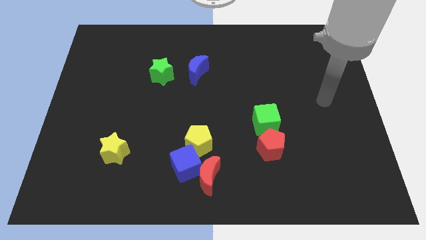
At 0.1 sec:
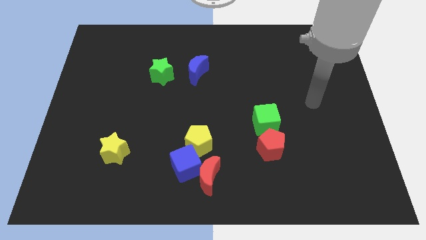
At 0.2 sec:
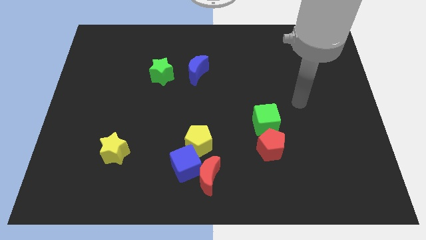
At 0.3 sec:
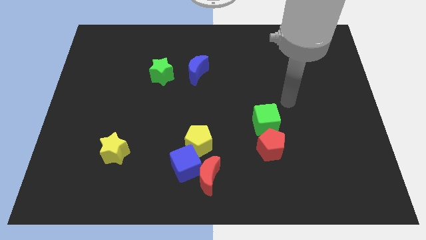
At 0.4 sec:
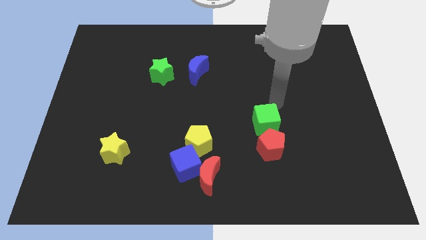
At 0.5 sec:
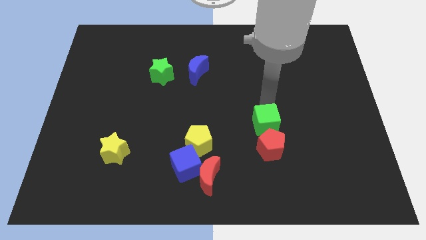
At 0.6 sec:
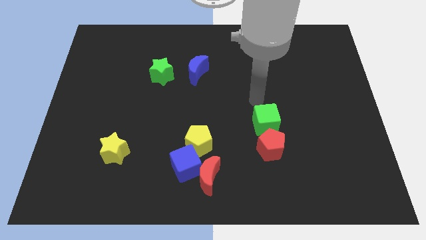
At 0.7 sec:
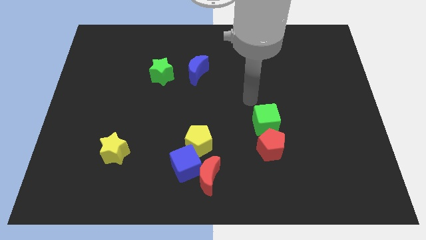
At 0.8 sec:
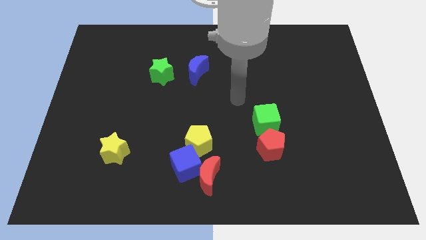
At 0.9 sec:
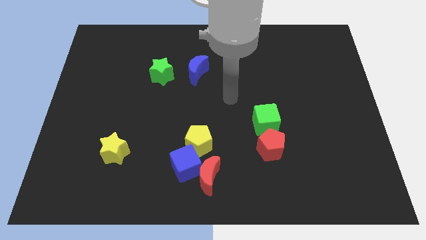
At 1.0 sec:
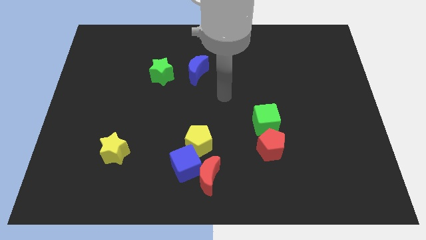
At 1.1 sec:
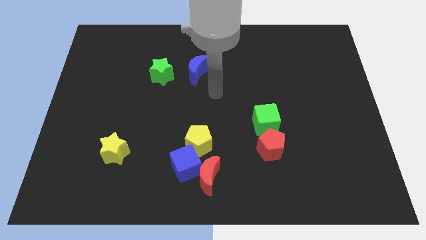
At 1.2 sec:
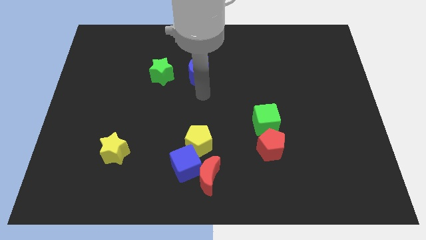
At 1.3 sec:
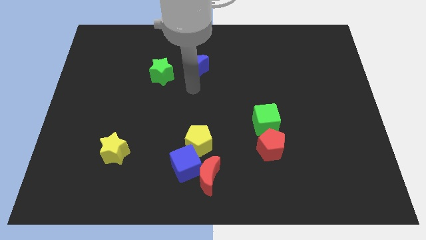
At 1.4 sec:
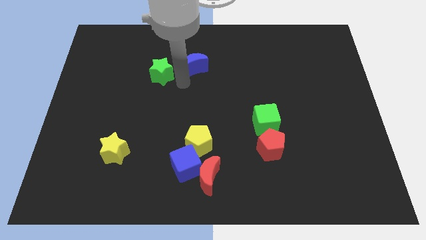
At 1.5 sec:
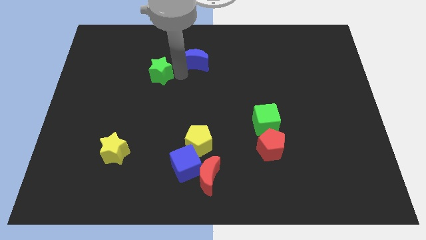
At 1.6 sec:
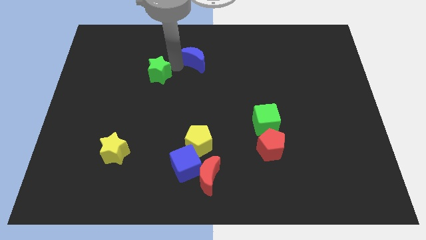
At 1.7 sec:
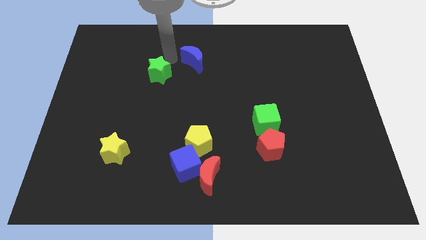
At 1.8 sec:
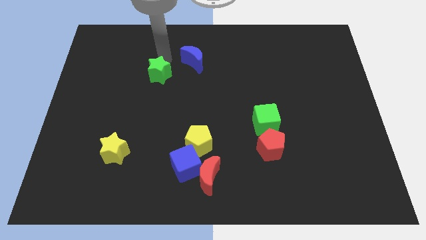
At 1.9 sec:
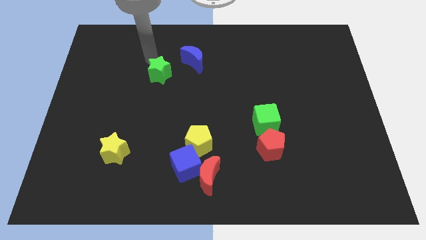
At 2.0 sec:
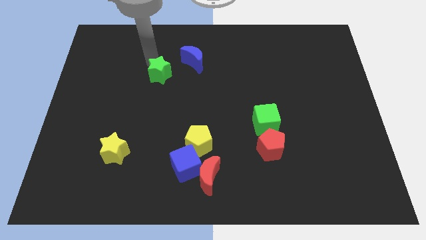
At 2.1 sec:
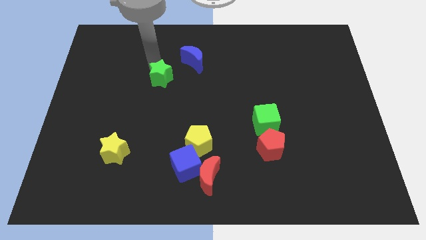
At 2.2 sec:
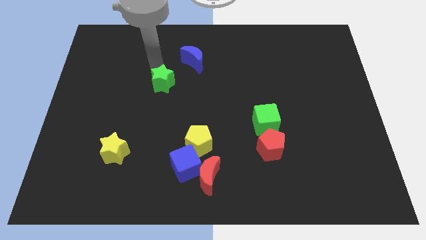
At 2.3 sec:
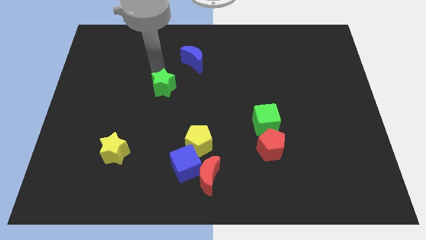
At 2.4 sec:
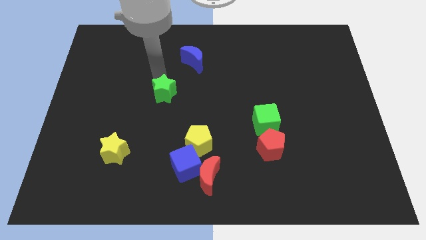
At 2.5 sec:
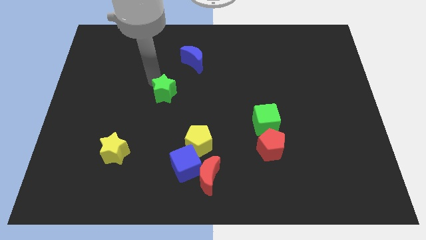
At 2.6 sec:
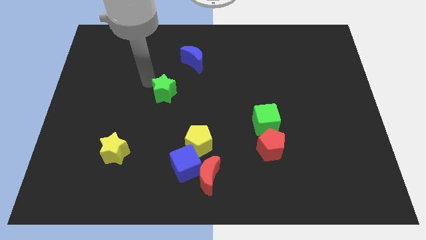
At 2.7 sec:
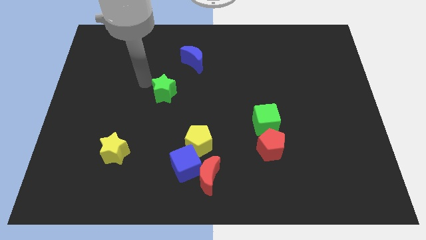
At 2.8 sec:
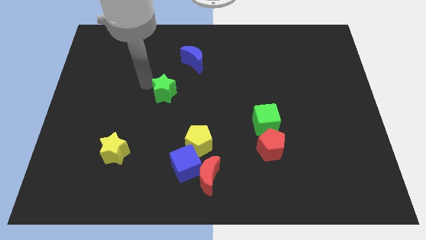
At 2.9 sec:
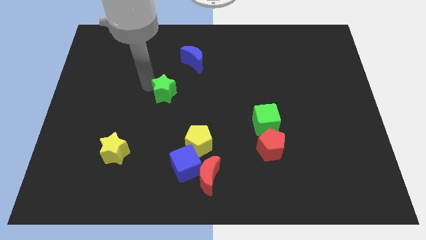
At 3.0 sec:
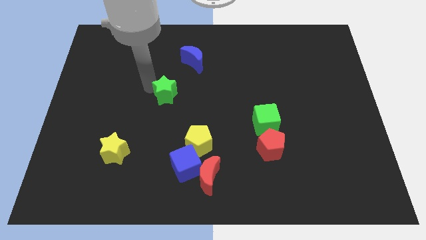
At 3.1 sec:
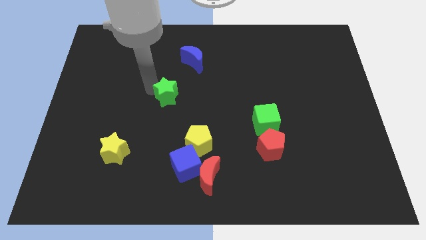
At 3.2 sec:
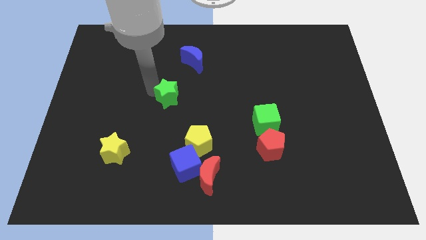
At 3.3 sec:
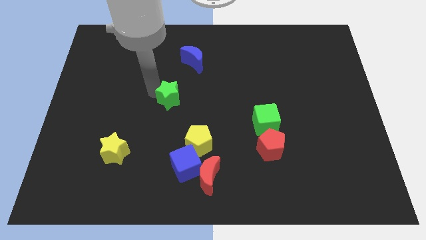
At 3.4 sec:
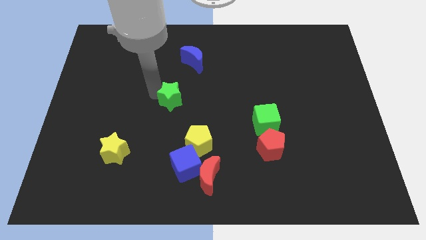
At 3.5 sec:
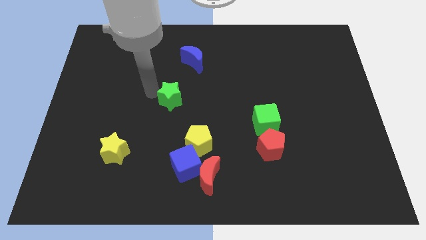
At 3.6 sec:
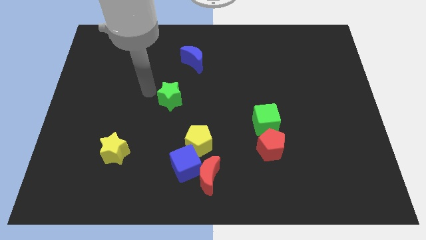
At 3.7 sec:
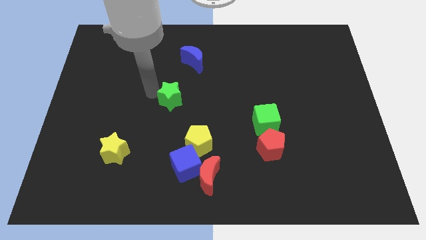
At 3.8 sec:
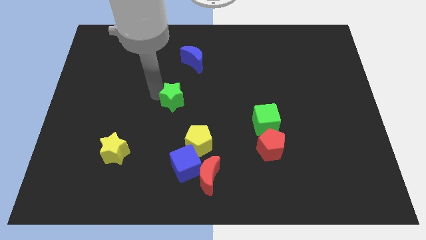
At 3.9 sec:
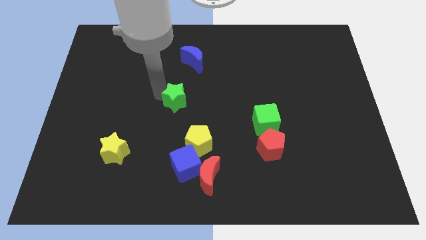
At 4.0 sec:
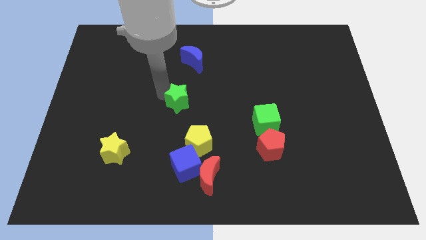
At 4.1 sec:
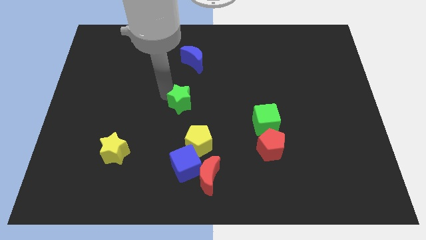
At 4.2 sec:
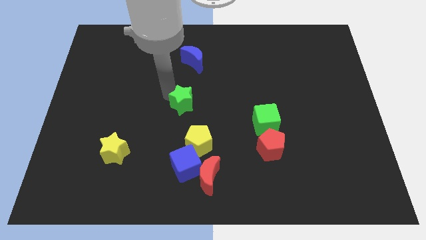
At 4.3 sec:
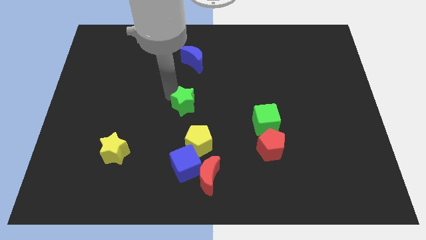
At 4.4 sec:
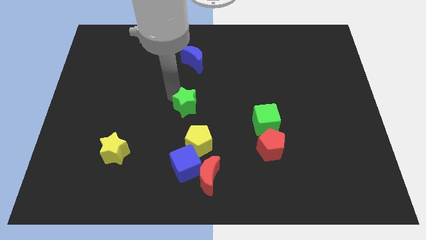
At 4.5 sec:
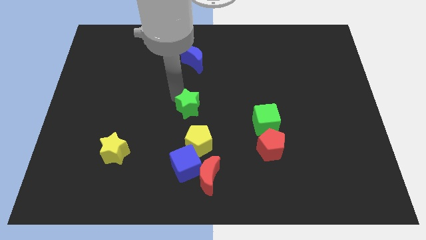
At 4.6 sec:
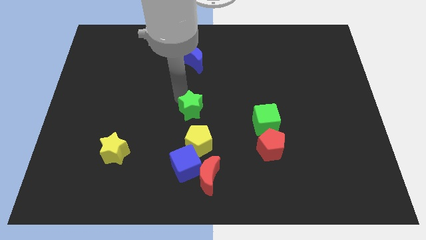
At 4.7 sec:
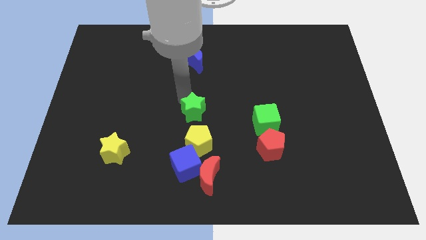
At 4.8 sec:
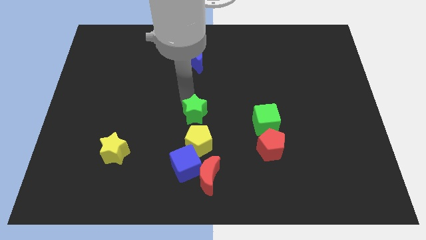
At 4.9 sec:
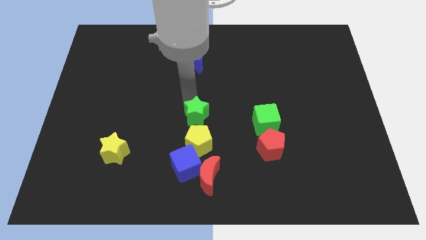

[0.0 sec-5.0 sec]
push the green star to the top side of the red moon

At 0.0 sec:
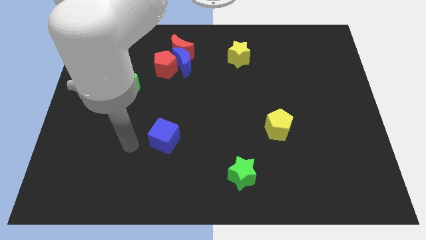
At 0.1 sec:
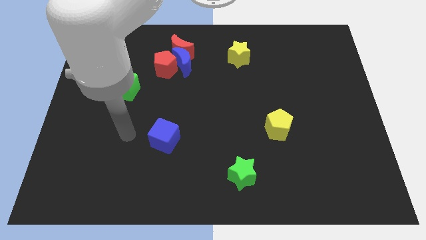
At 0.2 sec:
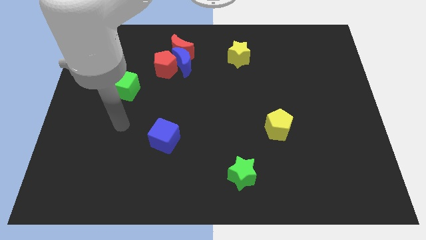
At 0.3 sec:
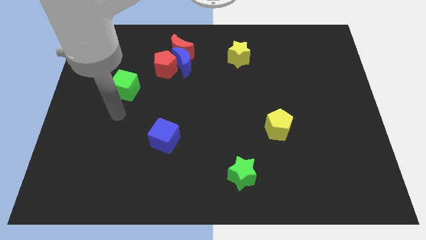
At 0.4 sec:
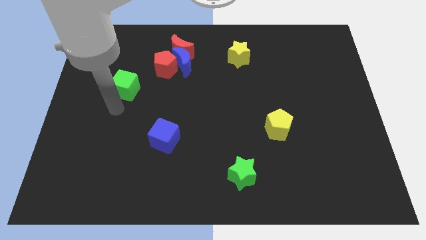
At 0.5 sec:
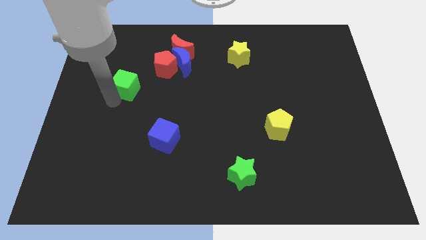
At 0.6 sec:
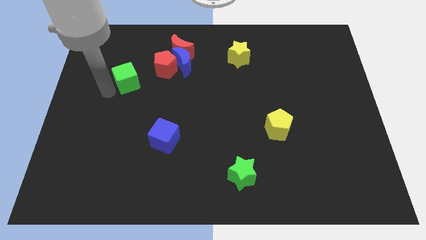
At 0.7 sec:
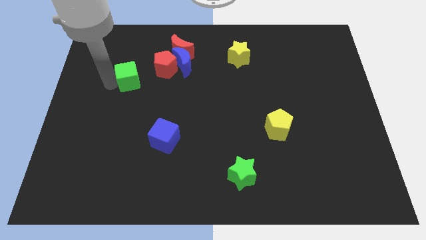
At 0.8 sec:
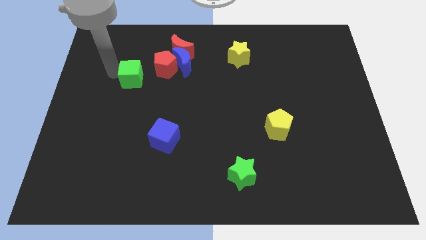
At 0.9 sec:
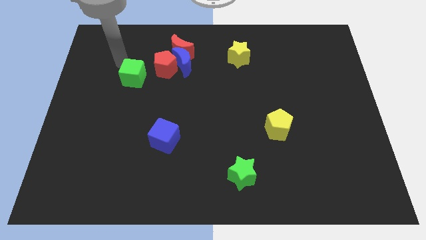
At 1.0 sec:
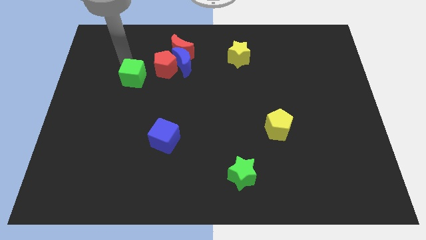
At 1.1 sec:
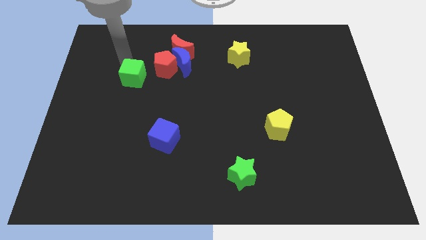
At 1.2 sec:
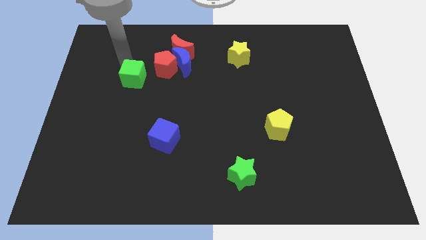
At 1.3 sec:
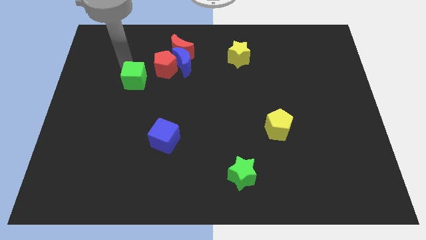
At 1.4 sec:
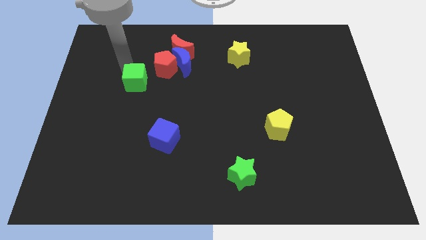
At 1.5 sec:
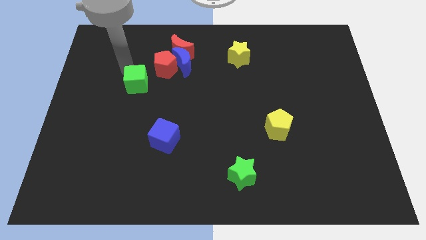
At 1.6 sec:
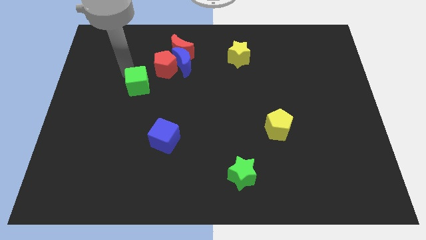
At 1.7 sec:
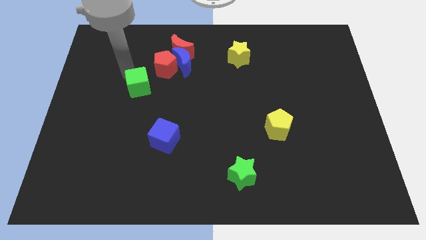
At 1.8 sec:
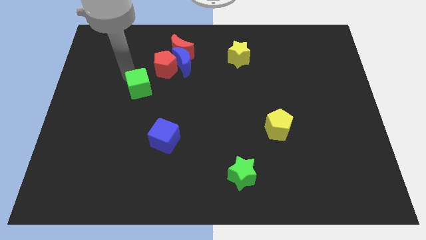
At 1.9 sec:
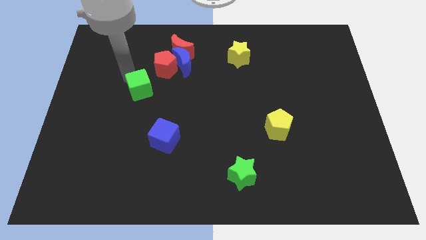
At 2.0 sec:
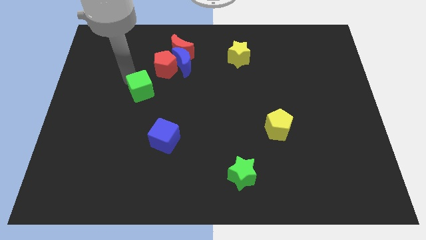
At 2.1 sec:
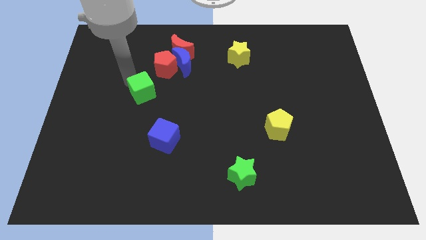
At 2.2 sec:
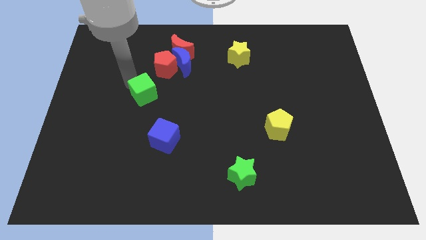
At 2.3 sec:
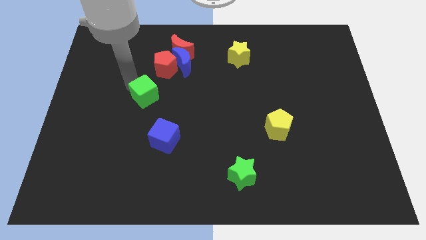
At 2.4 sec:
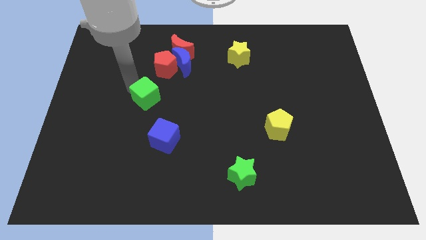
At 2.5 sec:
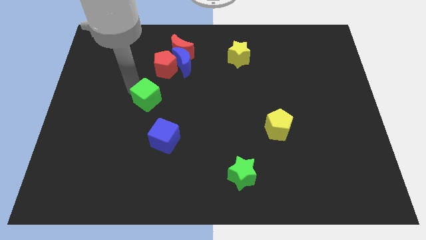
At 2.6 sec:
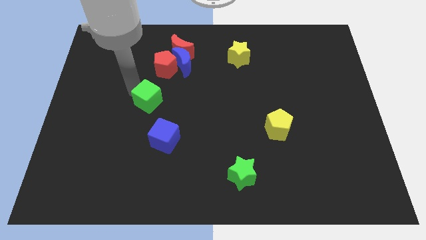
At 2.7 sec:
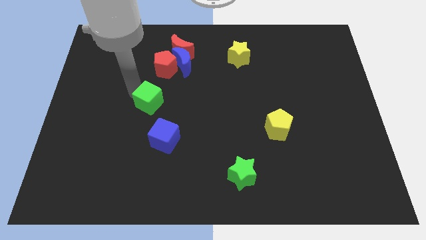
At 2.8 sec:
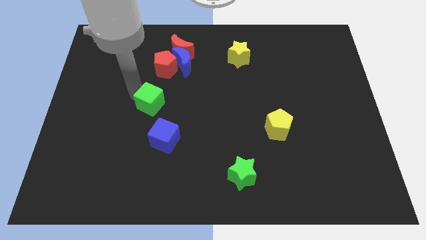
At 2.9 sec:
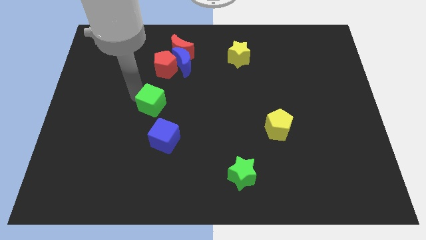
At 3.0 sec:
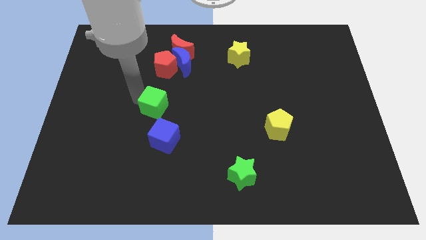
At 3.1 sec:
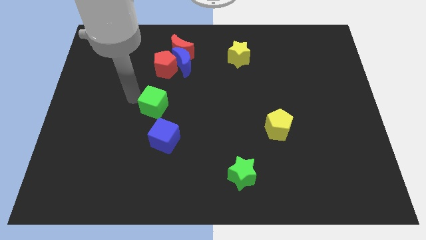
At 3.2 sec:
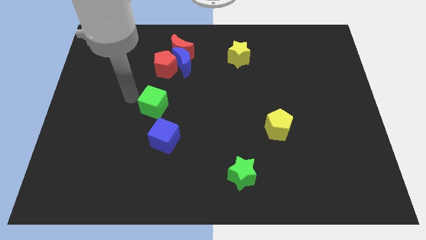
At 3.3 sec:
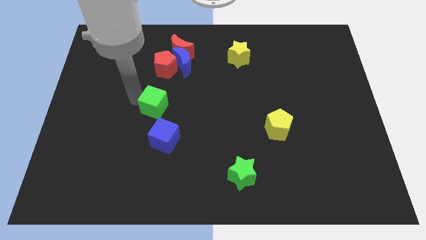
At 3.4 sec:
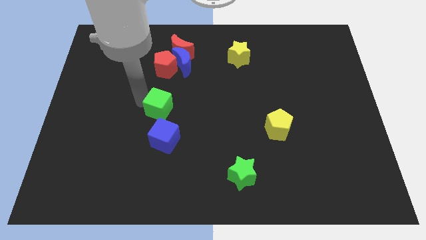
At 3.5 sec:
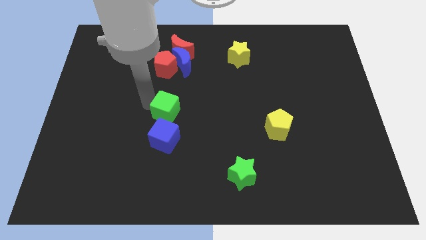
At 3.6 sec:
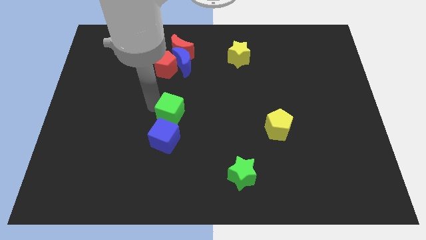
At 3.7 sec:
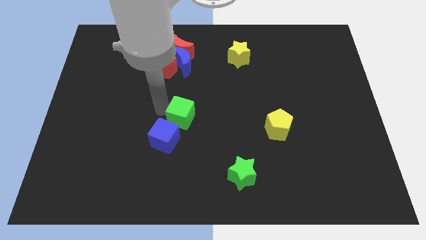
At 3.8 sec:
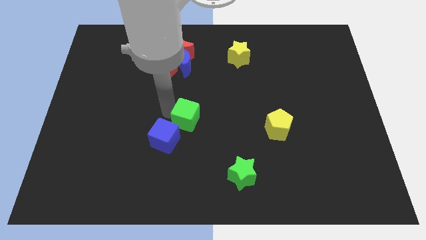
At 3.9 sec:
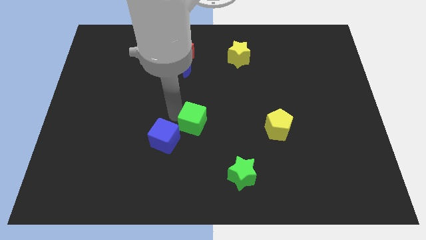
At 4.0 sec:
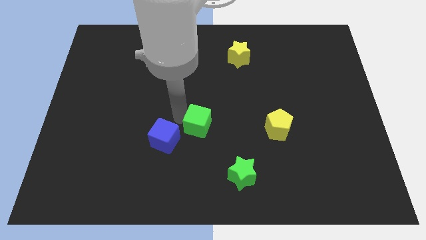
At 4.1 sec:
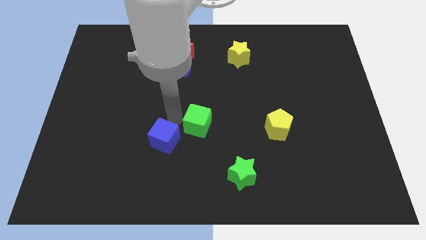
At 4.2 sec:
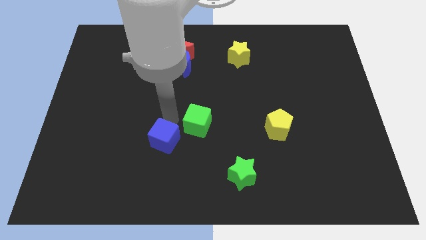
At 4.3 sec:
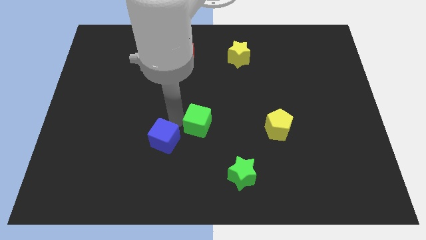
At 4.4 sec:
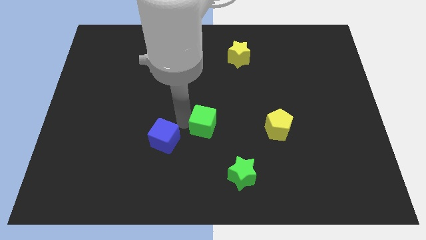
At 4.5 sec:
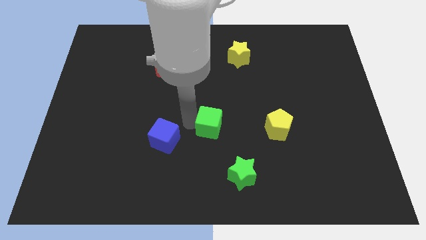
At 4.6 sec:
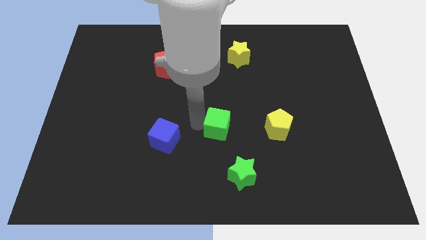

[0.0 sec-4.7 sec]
move the green cube above the green star
